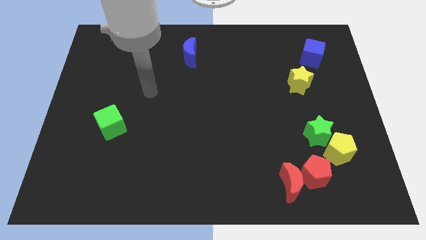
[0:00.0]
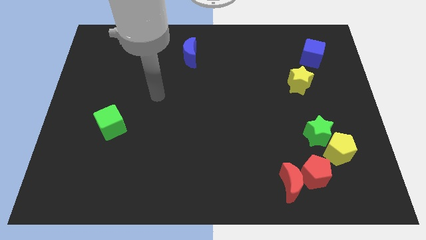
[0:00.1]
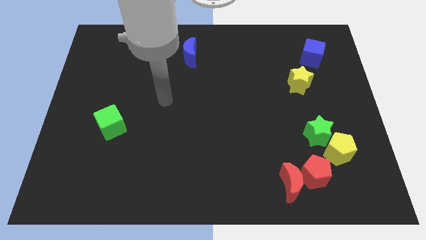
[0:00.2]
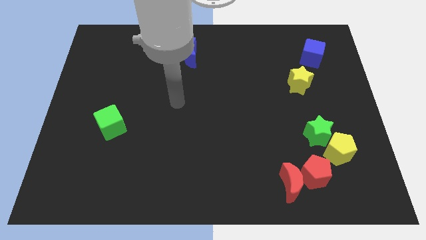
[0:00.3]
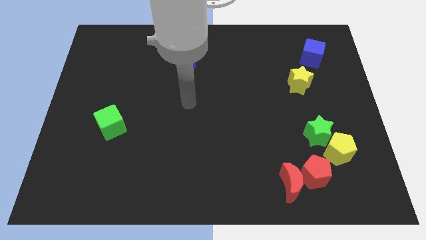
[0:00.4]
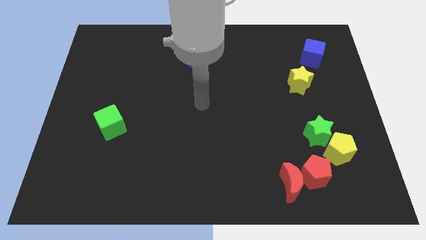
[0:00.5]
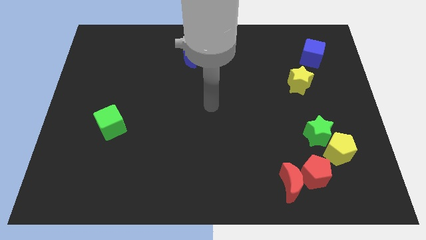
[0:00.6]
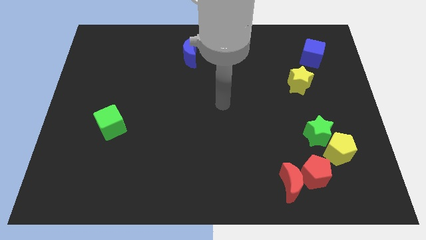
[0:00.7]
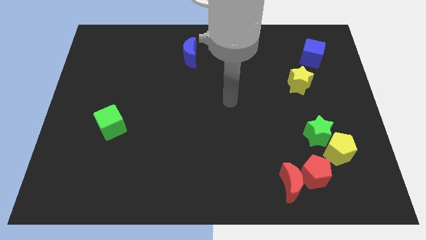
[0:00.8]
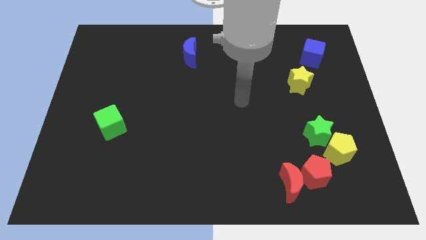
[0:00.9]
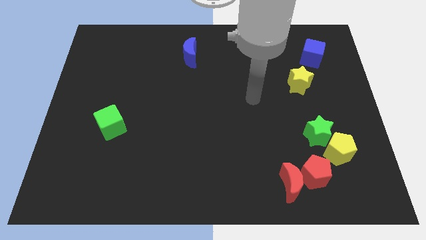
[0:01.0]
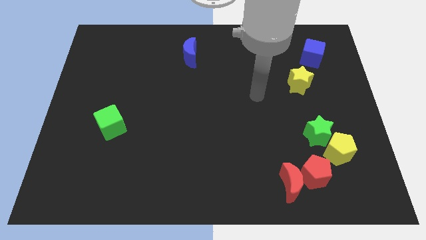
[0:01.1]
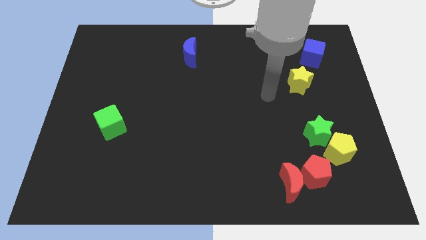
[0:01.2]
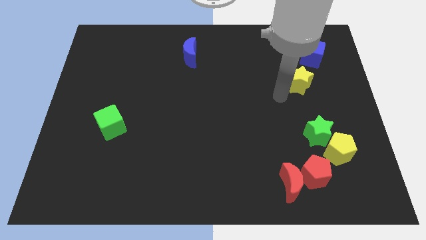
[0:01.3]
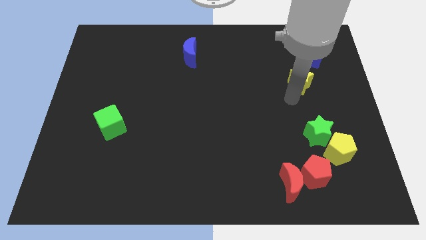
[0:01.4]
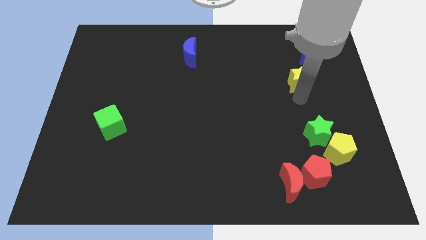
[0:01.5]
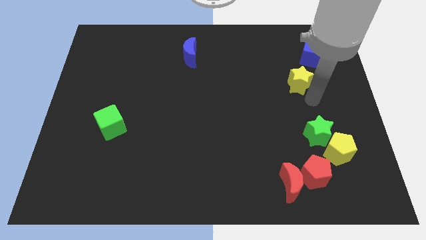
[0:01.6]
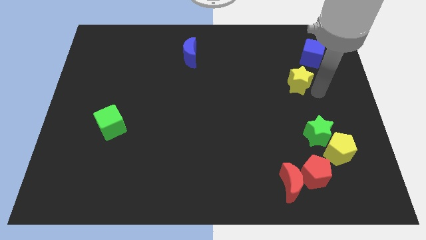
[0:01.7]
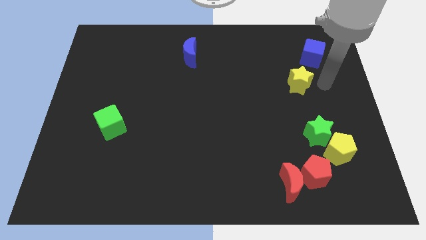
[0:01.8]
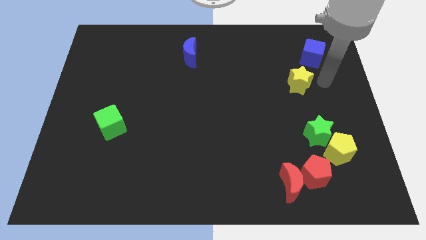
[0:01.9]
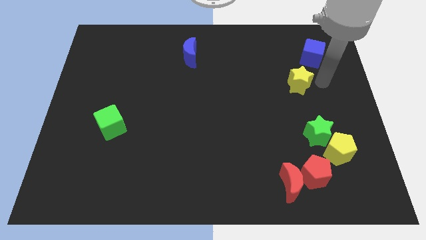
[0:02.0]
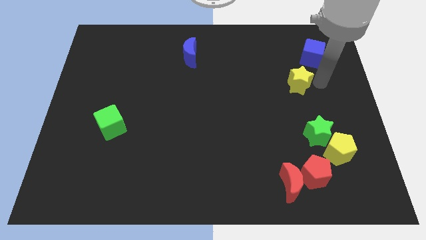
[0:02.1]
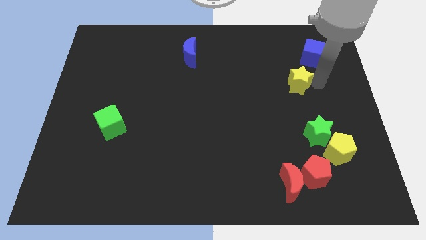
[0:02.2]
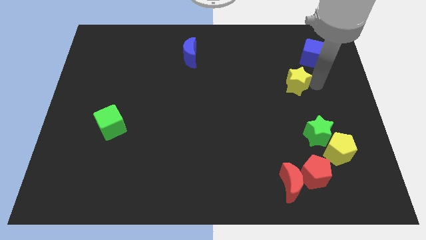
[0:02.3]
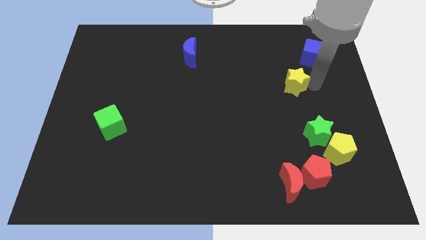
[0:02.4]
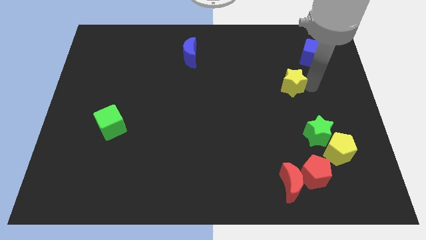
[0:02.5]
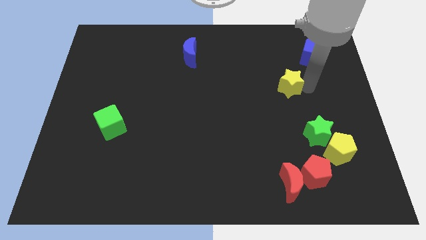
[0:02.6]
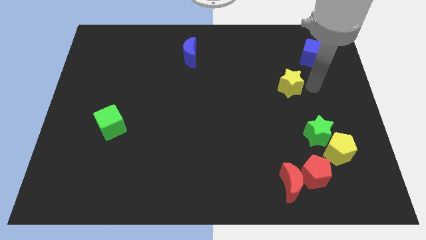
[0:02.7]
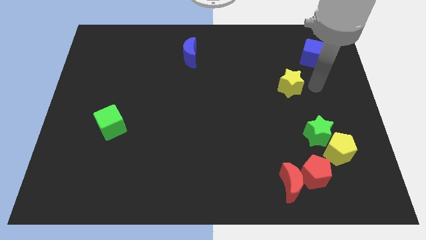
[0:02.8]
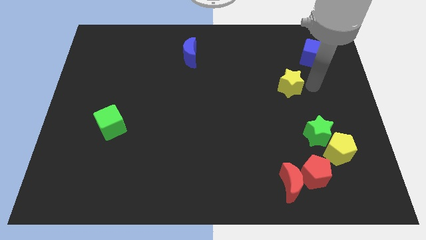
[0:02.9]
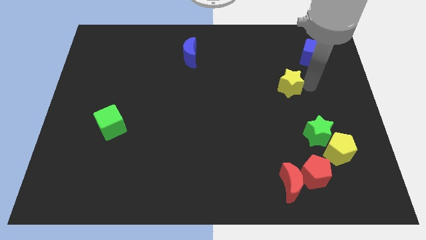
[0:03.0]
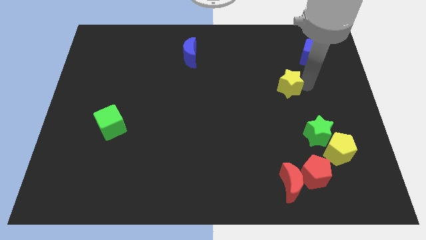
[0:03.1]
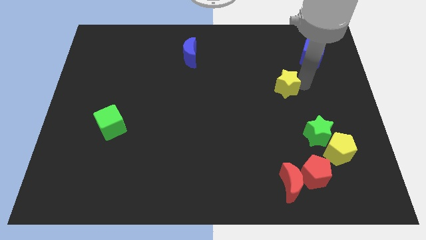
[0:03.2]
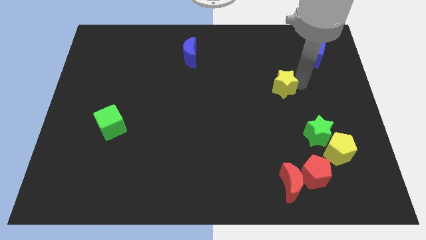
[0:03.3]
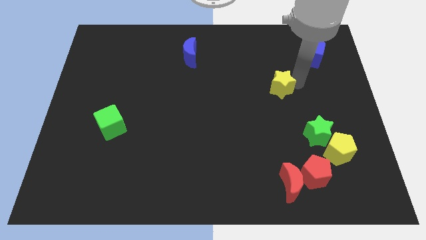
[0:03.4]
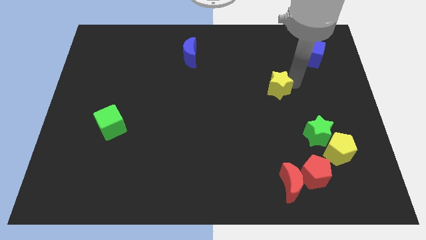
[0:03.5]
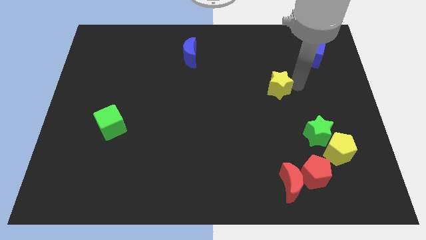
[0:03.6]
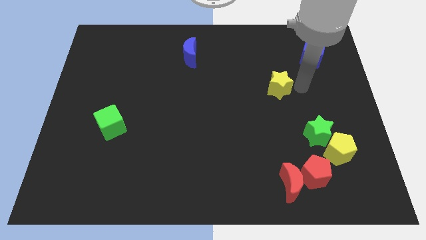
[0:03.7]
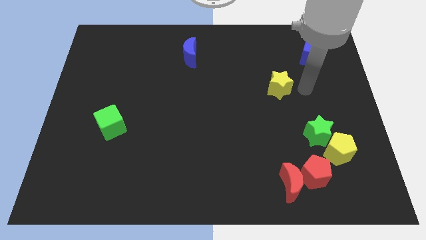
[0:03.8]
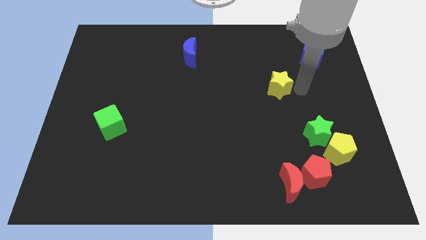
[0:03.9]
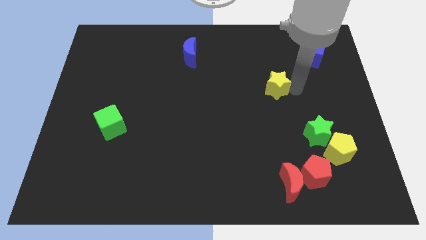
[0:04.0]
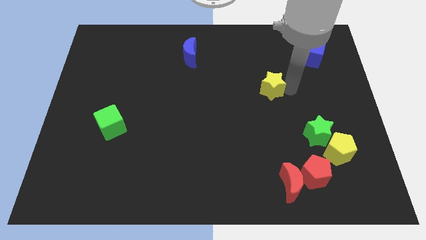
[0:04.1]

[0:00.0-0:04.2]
push the yellow star to the left a little bit

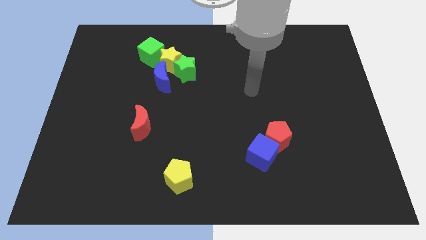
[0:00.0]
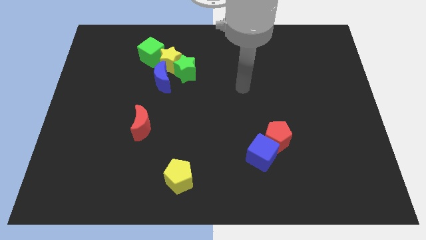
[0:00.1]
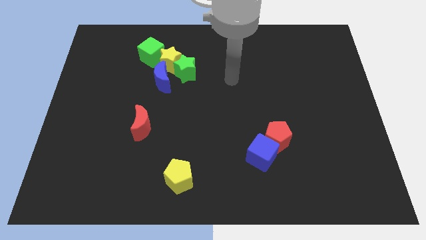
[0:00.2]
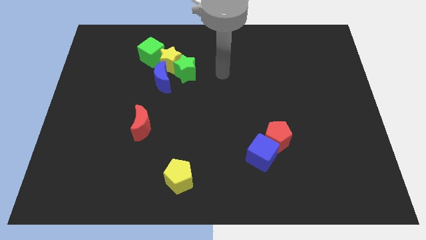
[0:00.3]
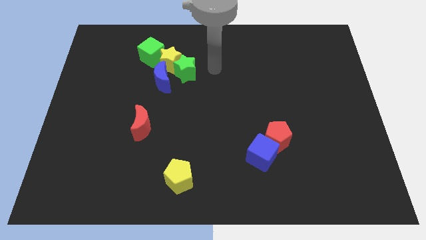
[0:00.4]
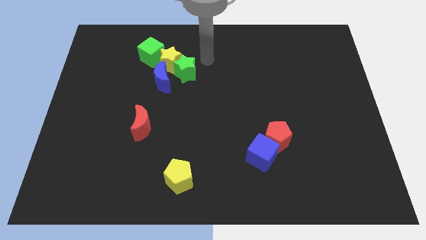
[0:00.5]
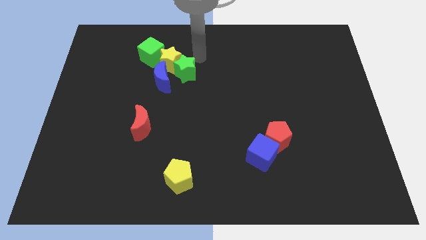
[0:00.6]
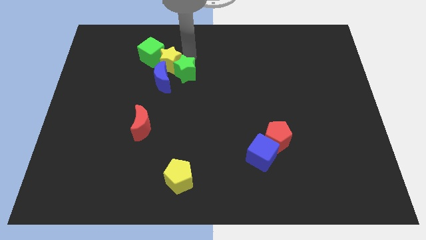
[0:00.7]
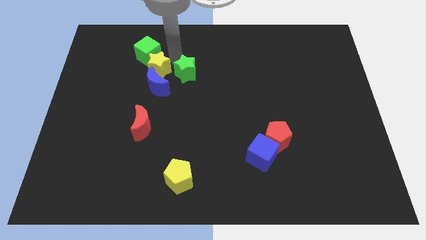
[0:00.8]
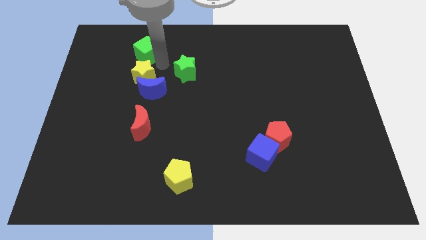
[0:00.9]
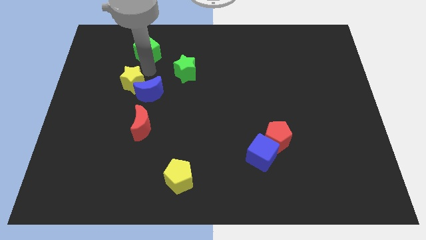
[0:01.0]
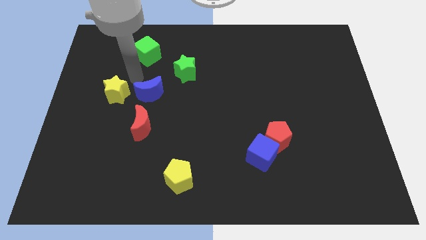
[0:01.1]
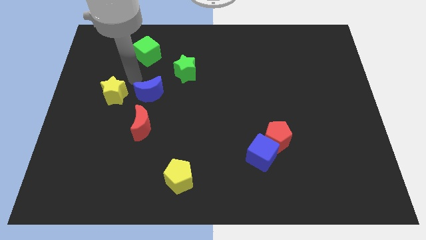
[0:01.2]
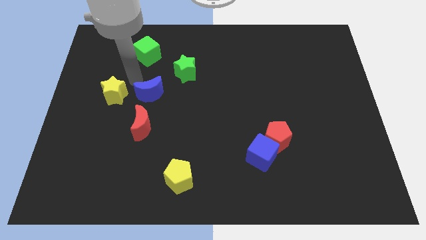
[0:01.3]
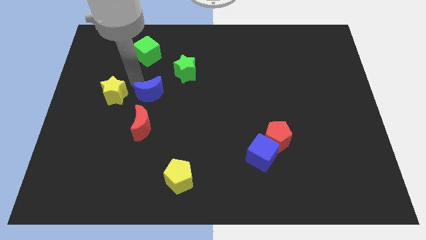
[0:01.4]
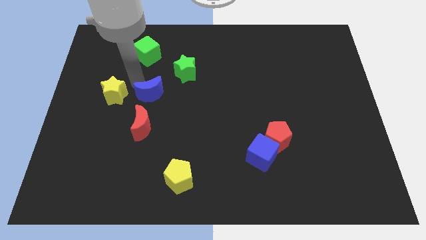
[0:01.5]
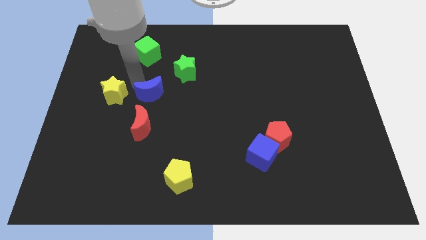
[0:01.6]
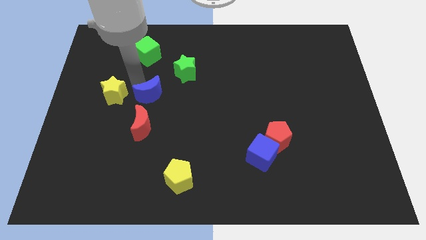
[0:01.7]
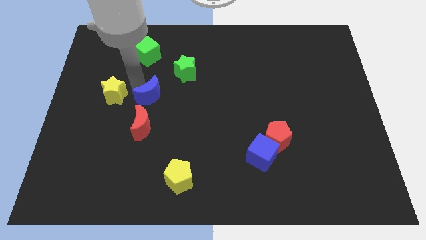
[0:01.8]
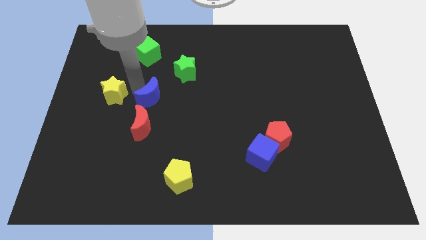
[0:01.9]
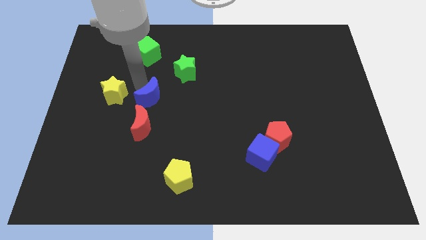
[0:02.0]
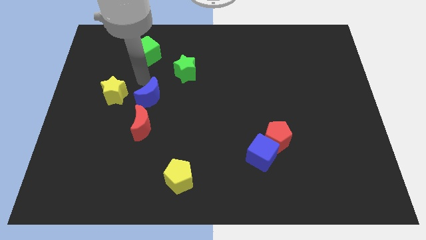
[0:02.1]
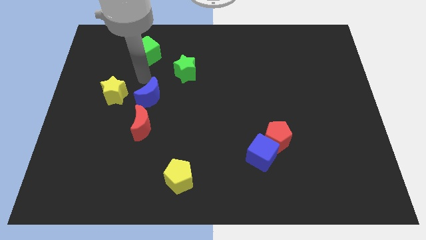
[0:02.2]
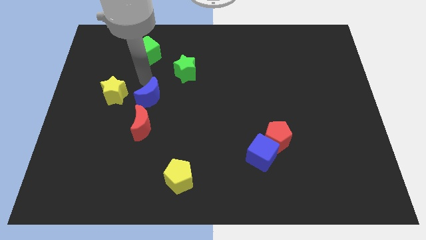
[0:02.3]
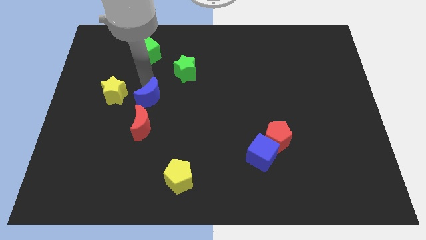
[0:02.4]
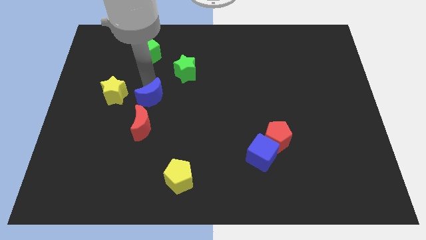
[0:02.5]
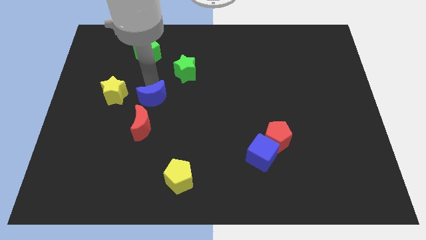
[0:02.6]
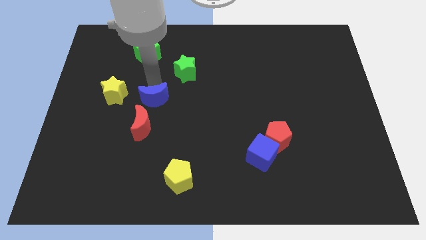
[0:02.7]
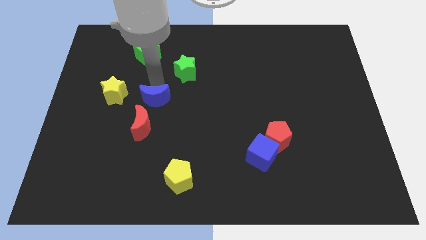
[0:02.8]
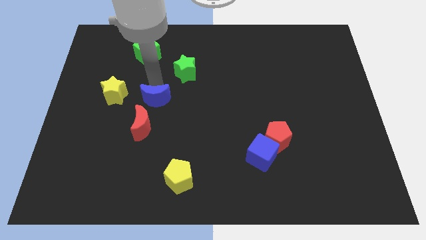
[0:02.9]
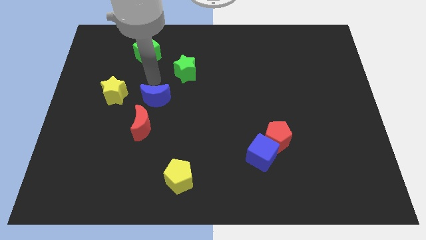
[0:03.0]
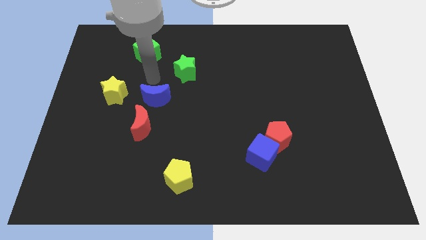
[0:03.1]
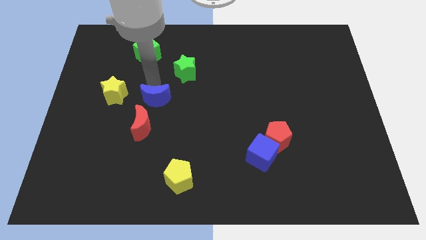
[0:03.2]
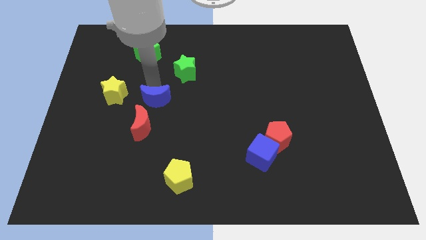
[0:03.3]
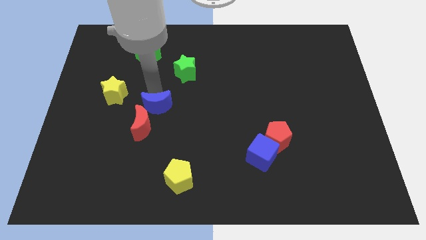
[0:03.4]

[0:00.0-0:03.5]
move the blue moon a bit down
